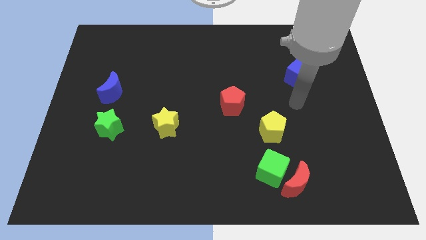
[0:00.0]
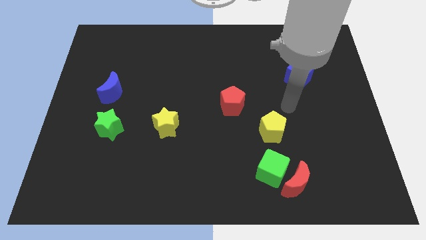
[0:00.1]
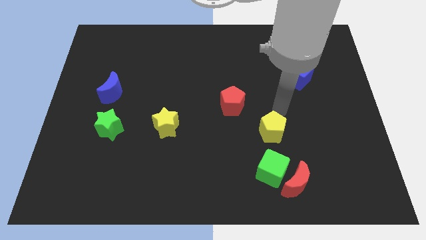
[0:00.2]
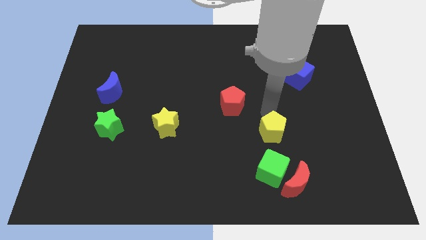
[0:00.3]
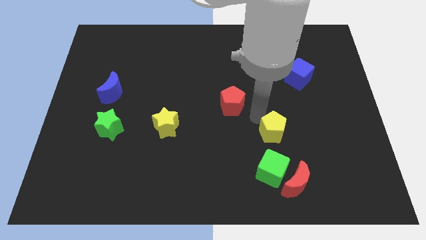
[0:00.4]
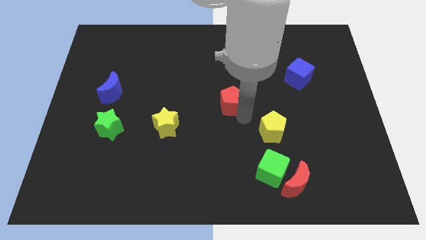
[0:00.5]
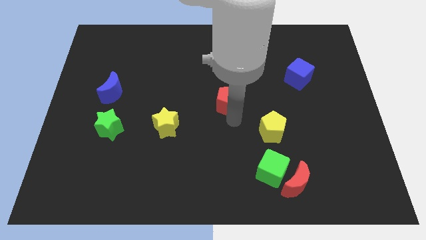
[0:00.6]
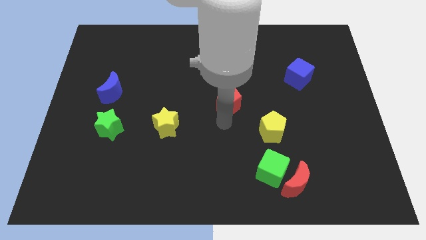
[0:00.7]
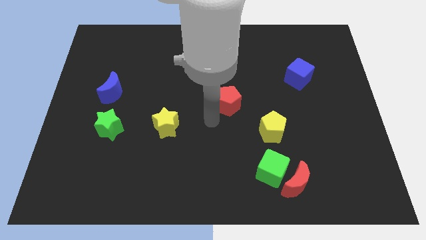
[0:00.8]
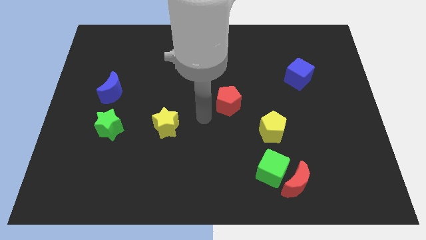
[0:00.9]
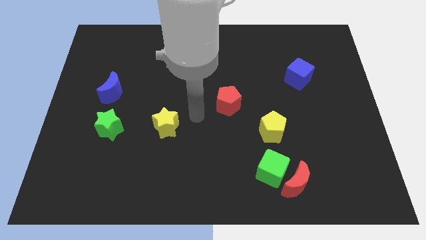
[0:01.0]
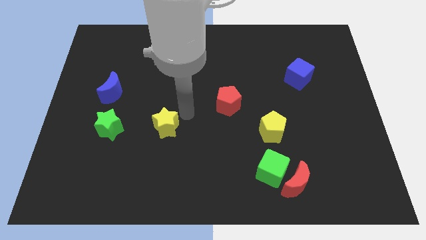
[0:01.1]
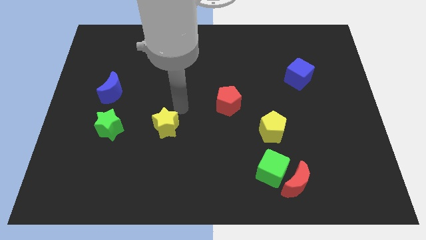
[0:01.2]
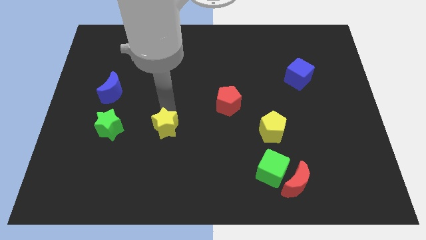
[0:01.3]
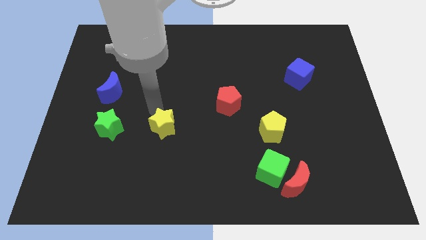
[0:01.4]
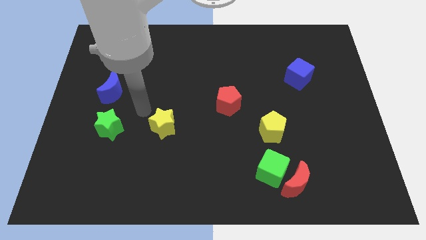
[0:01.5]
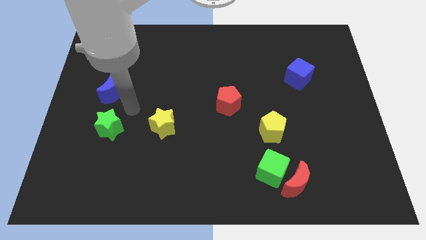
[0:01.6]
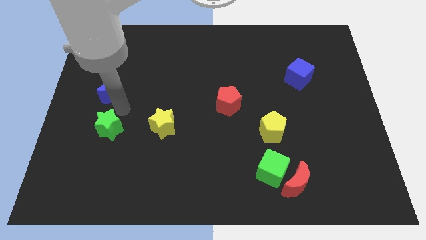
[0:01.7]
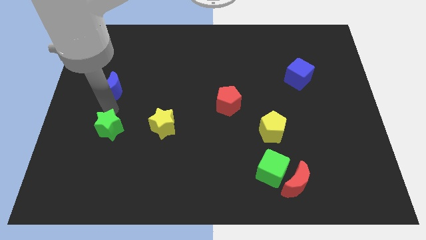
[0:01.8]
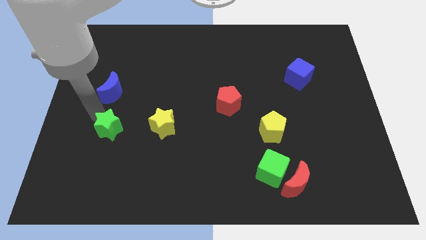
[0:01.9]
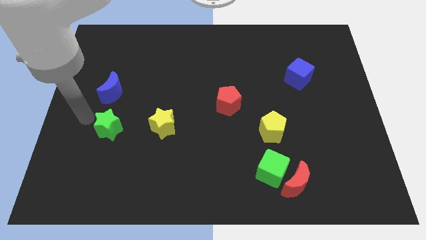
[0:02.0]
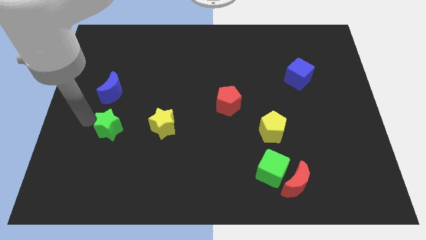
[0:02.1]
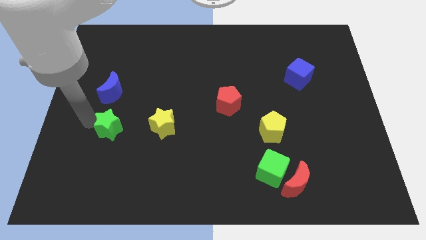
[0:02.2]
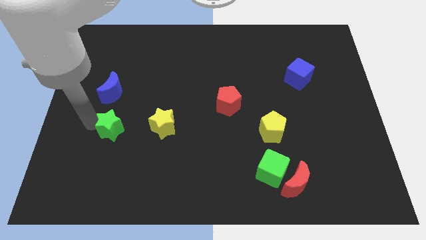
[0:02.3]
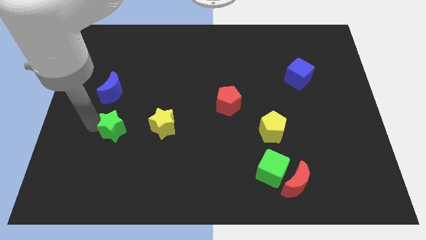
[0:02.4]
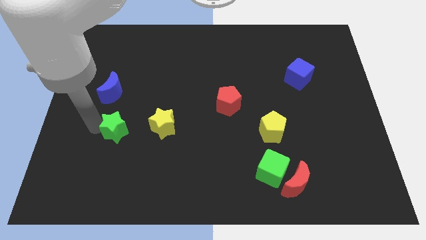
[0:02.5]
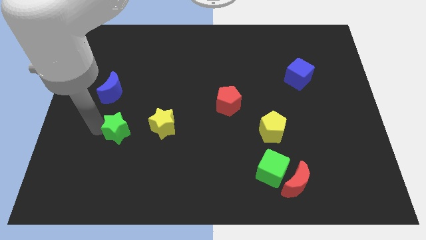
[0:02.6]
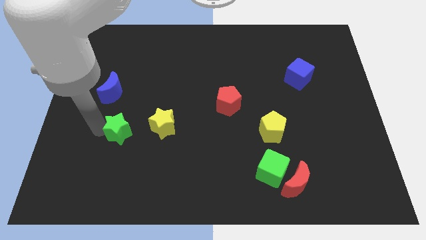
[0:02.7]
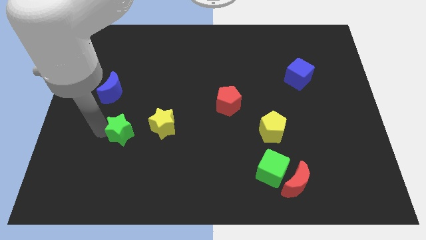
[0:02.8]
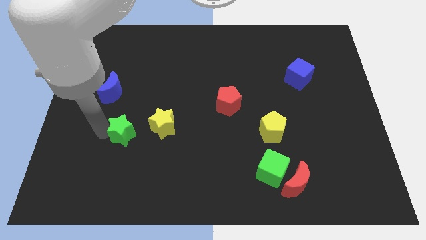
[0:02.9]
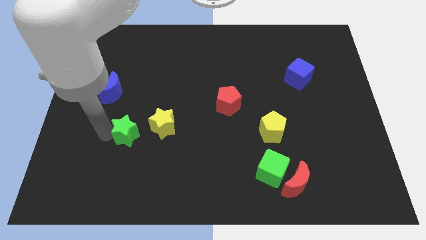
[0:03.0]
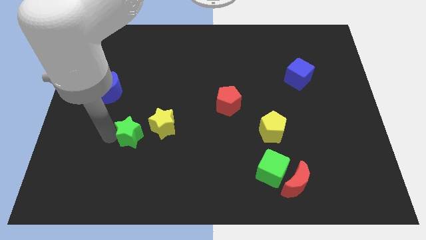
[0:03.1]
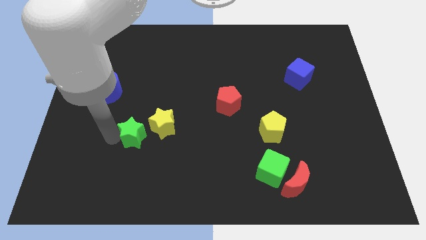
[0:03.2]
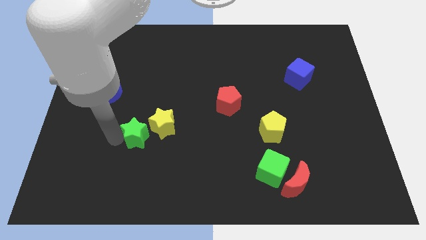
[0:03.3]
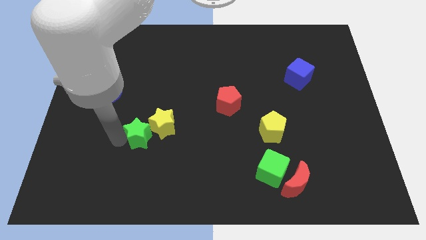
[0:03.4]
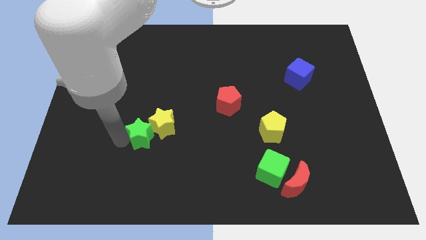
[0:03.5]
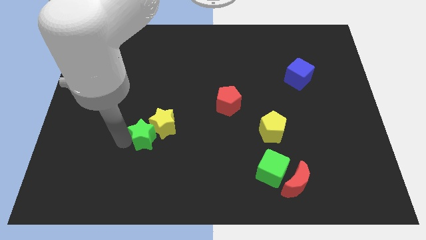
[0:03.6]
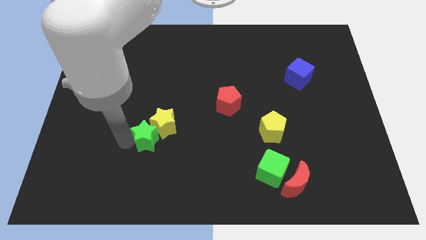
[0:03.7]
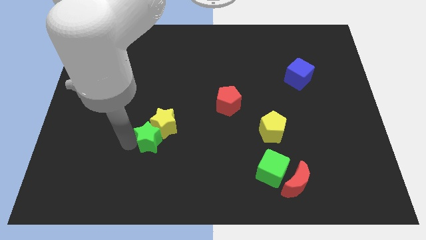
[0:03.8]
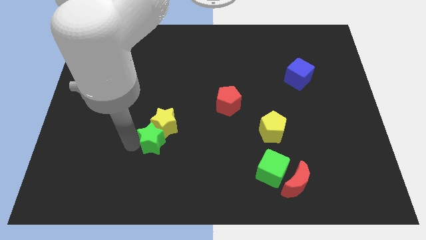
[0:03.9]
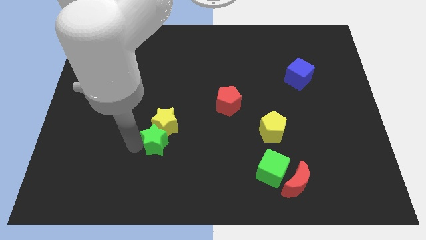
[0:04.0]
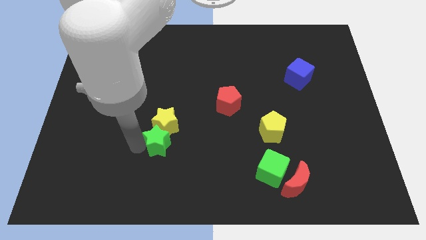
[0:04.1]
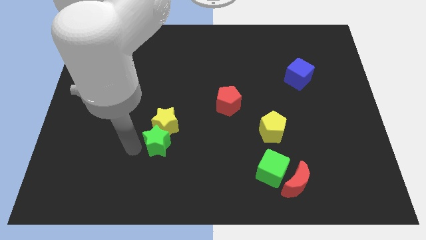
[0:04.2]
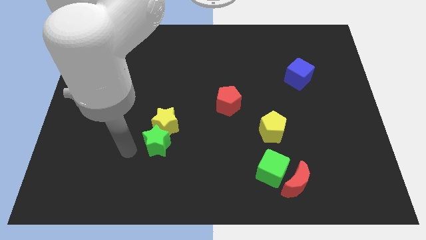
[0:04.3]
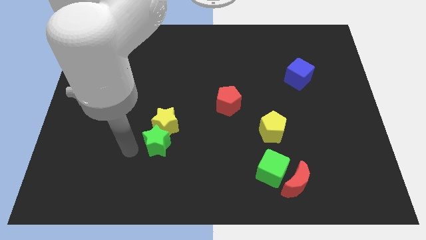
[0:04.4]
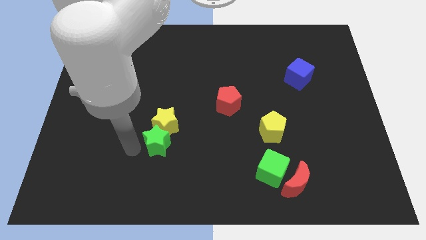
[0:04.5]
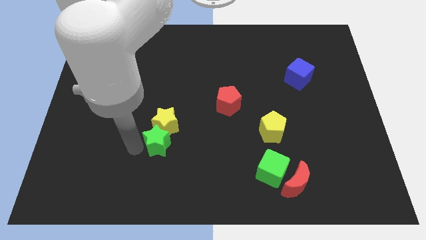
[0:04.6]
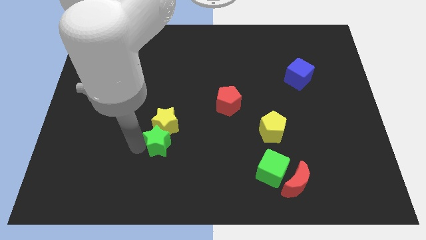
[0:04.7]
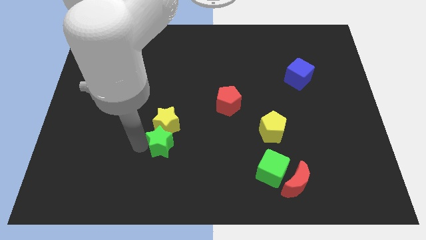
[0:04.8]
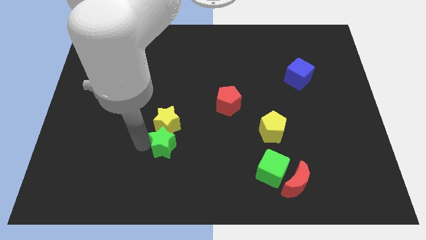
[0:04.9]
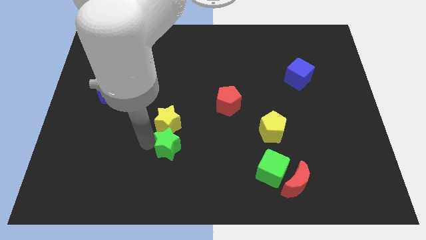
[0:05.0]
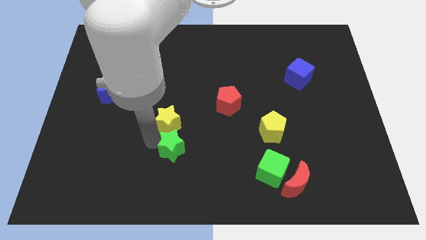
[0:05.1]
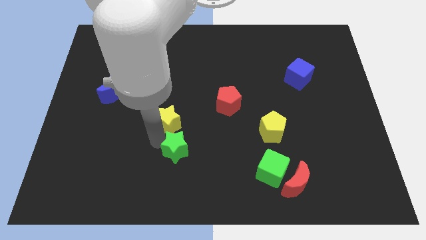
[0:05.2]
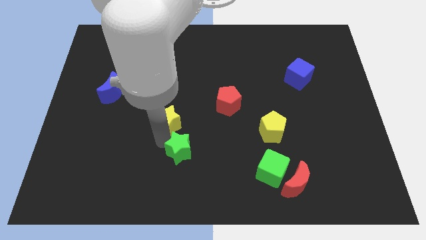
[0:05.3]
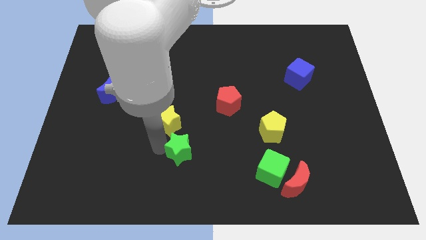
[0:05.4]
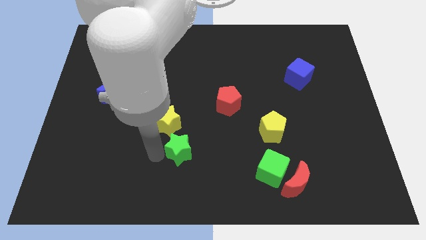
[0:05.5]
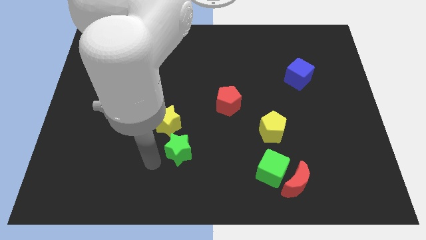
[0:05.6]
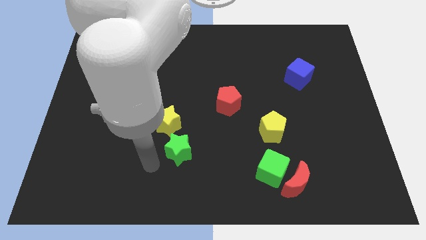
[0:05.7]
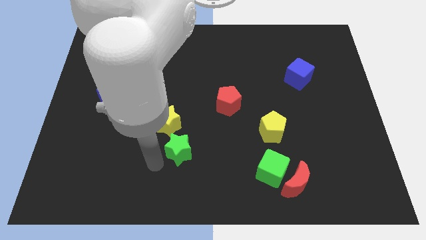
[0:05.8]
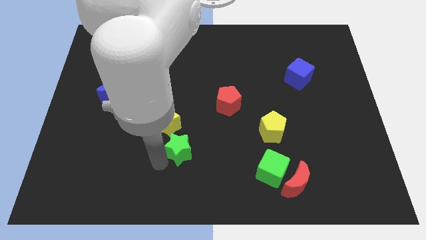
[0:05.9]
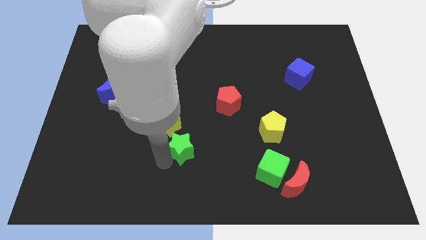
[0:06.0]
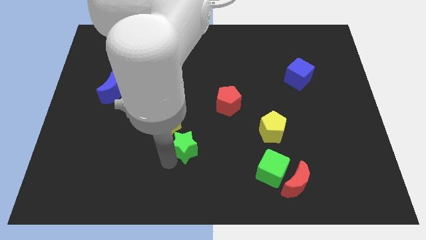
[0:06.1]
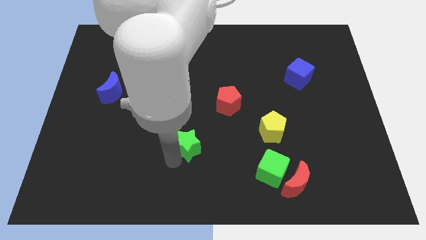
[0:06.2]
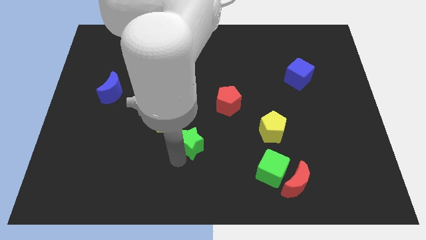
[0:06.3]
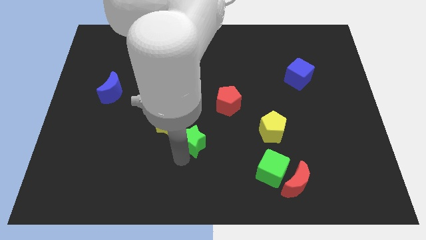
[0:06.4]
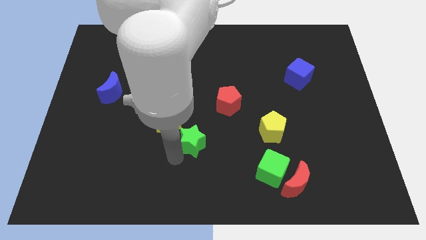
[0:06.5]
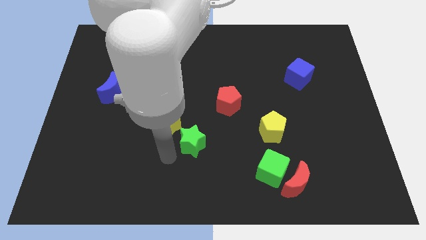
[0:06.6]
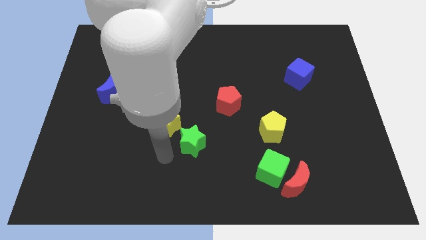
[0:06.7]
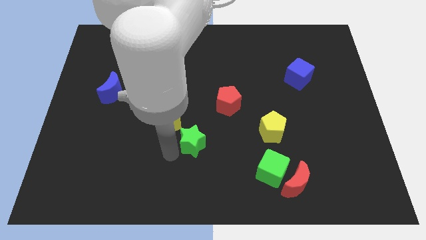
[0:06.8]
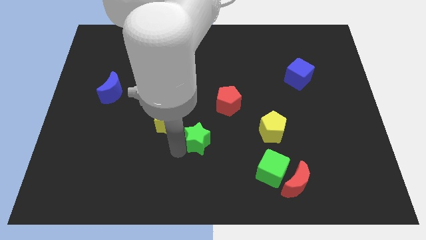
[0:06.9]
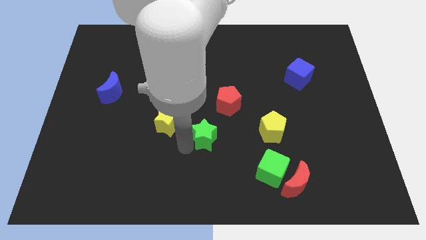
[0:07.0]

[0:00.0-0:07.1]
move the green star right

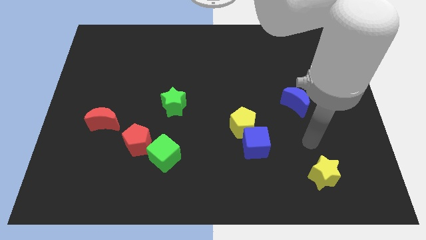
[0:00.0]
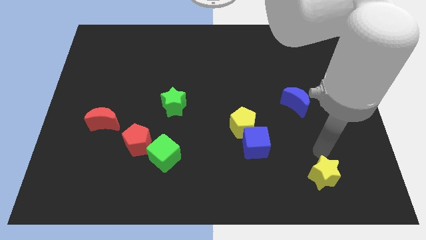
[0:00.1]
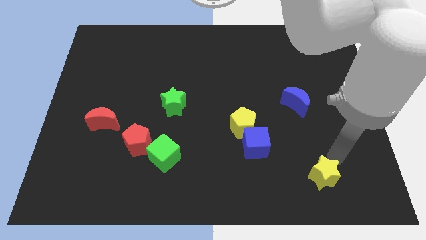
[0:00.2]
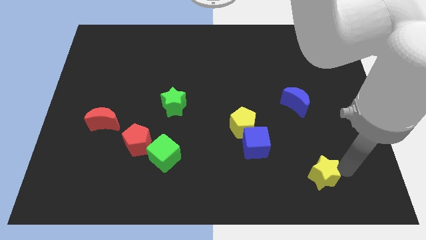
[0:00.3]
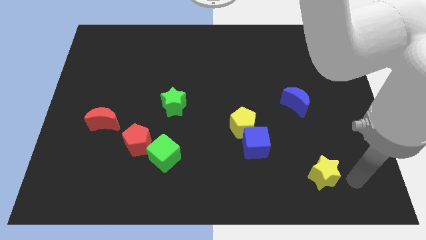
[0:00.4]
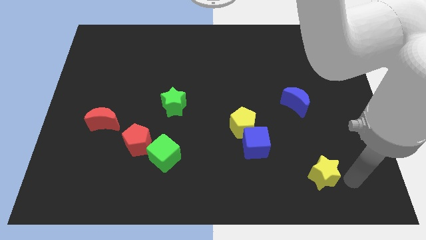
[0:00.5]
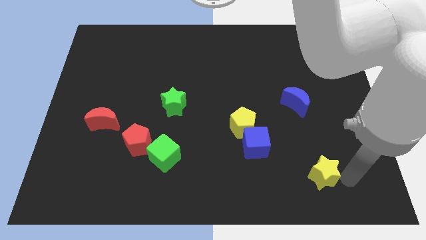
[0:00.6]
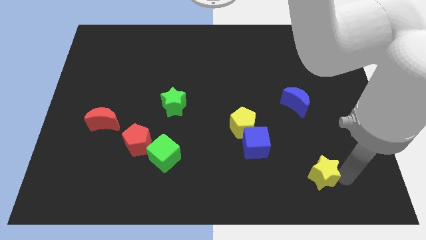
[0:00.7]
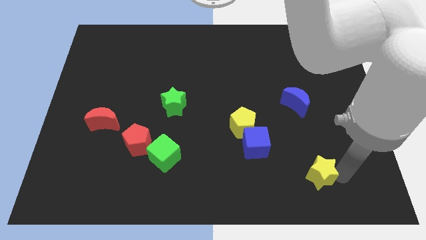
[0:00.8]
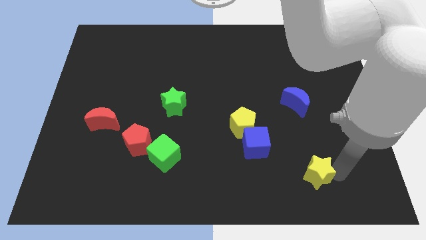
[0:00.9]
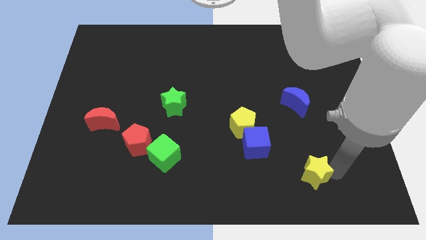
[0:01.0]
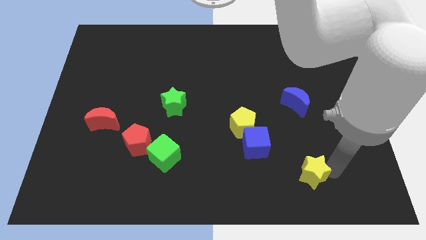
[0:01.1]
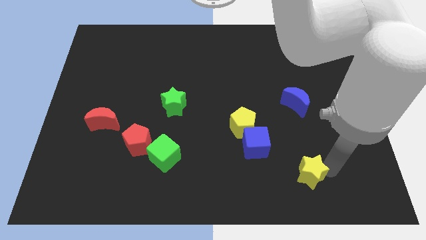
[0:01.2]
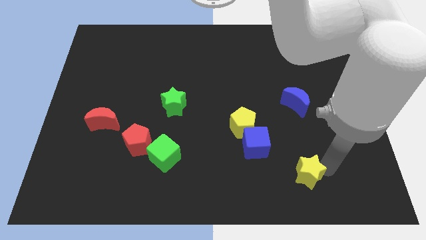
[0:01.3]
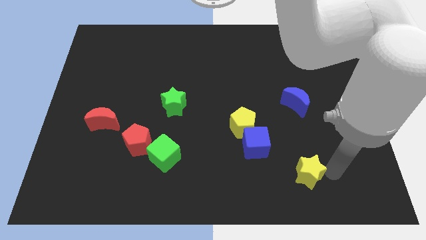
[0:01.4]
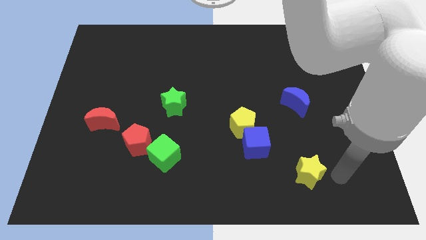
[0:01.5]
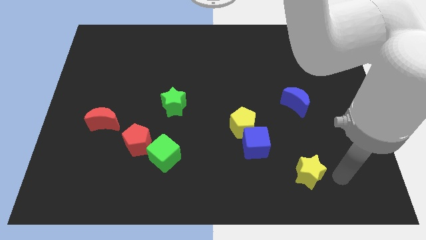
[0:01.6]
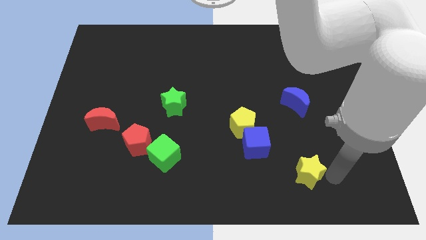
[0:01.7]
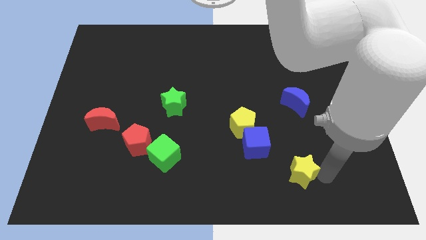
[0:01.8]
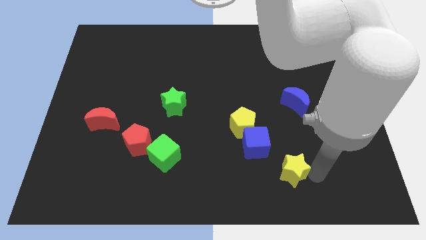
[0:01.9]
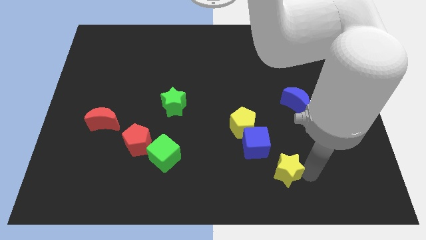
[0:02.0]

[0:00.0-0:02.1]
push the yellow star to the left a little bit
